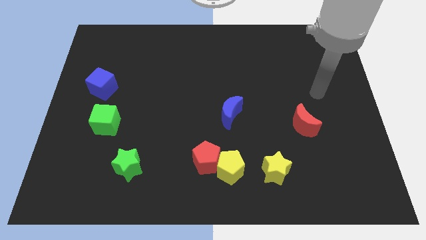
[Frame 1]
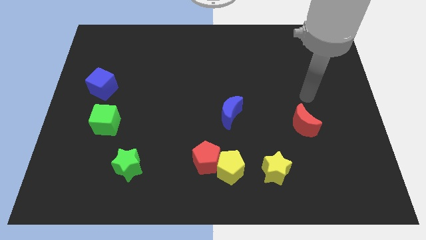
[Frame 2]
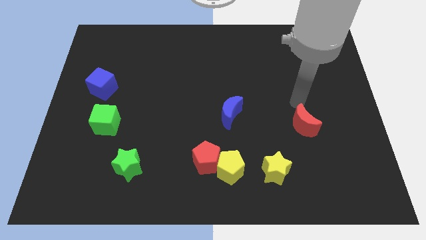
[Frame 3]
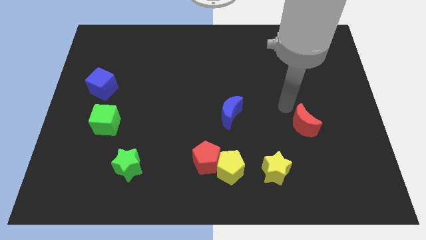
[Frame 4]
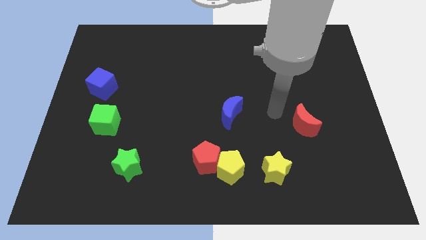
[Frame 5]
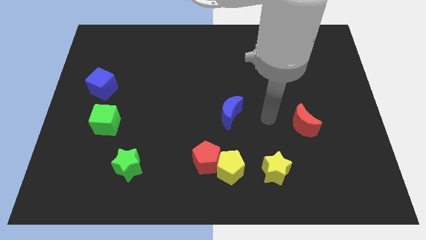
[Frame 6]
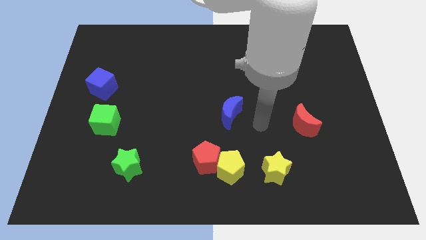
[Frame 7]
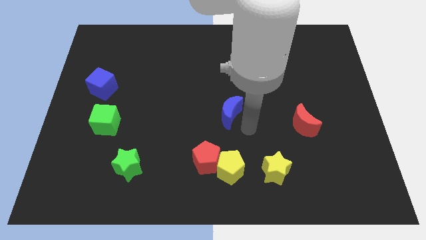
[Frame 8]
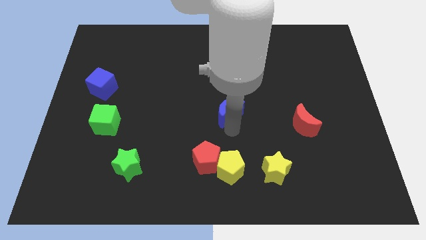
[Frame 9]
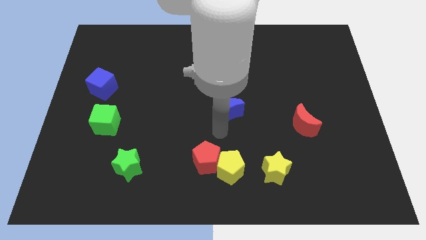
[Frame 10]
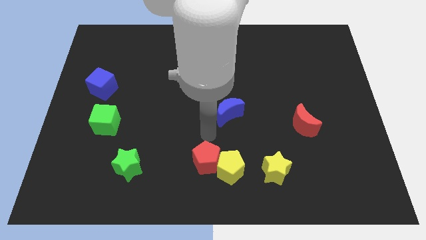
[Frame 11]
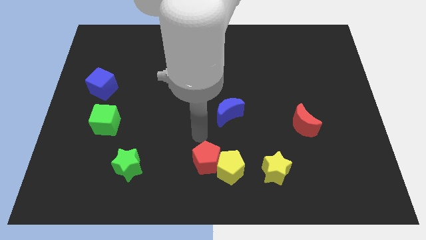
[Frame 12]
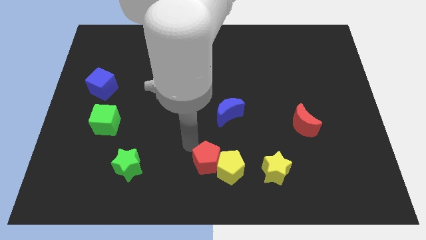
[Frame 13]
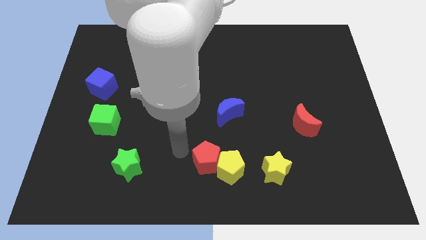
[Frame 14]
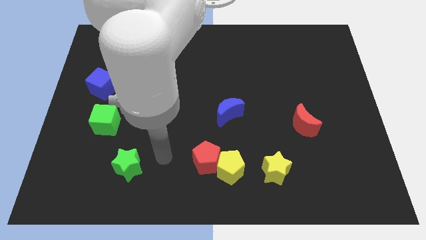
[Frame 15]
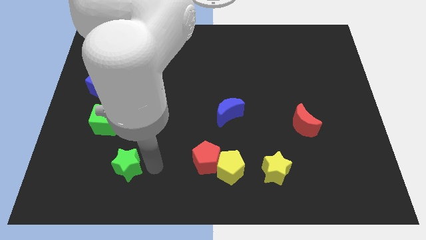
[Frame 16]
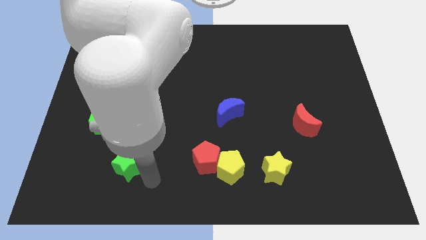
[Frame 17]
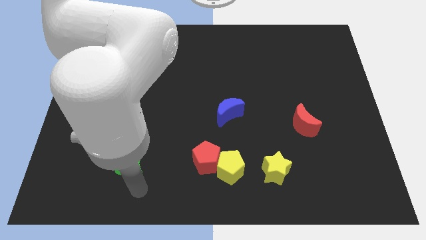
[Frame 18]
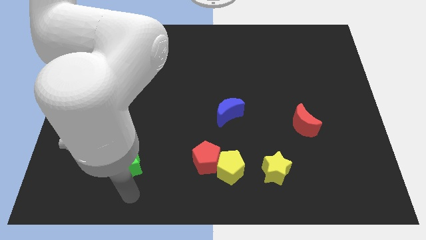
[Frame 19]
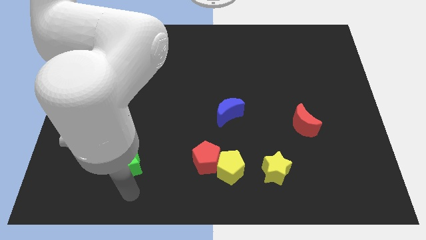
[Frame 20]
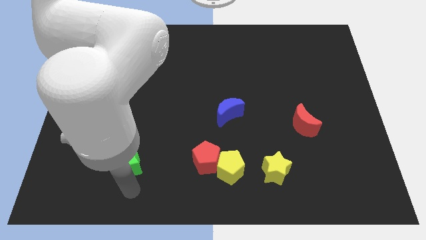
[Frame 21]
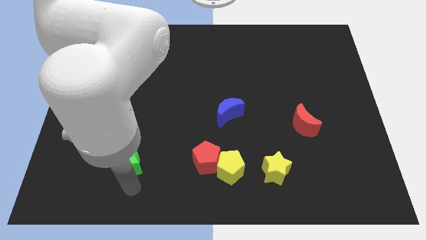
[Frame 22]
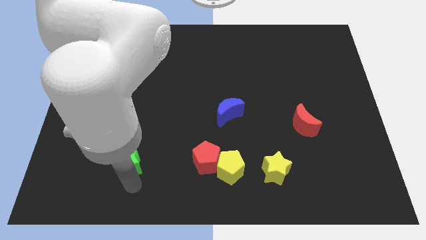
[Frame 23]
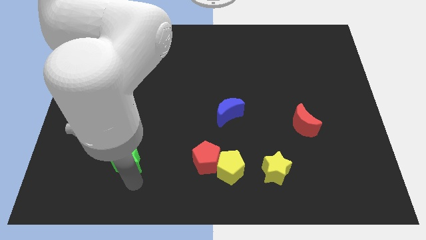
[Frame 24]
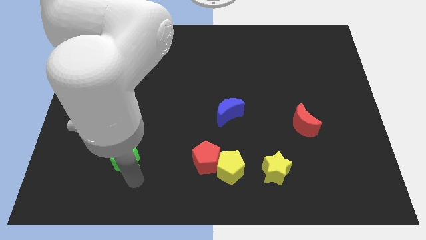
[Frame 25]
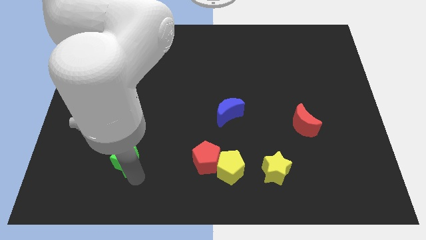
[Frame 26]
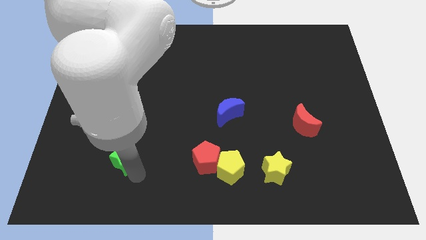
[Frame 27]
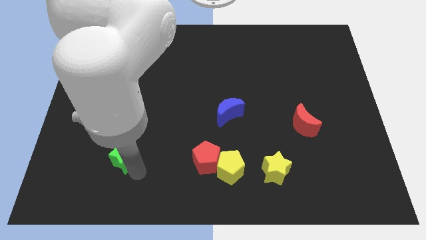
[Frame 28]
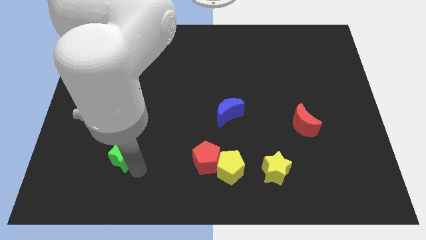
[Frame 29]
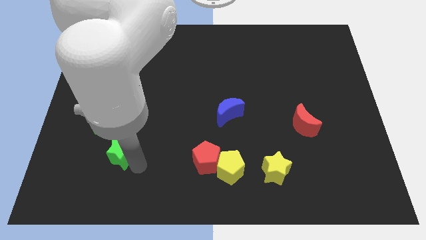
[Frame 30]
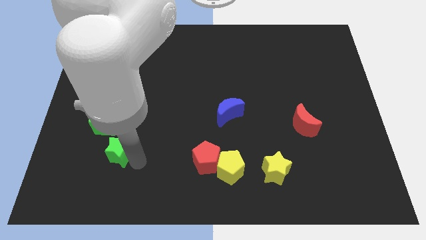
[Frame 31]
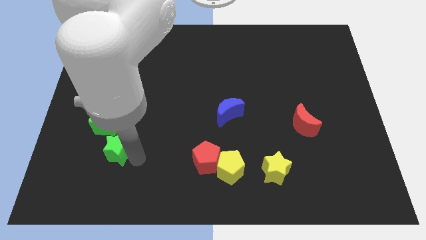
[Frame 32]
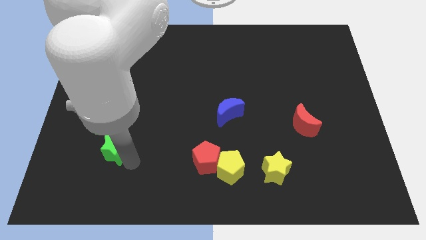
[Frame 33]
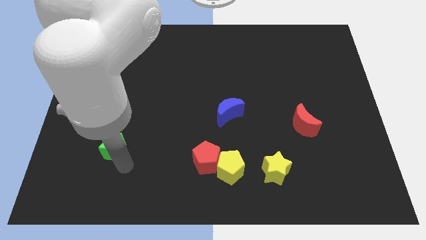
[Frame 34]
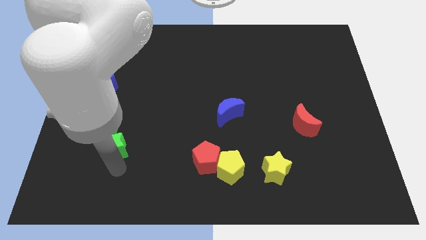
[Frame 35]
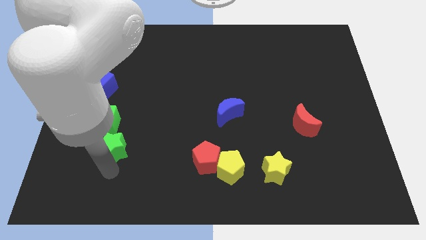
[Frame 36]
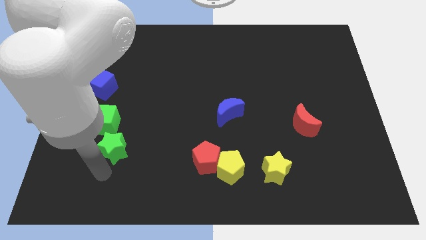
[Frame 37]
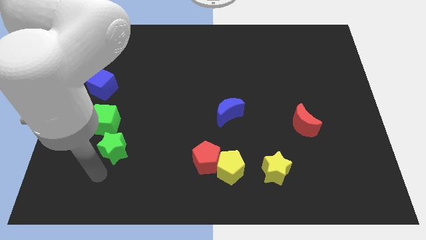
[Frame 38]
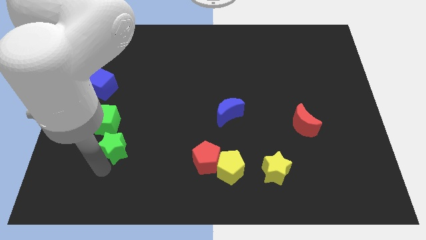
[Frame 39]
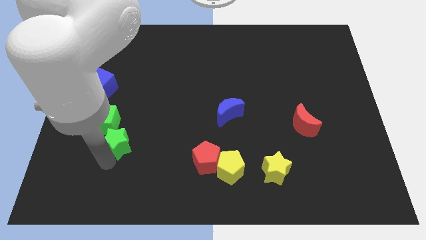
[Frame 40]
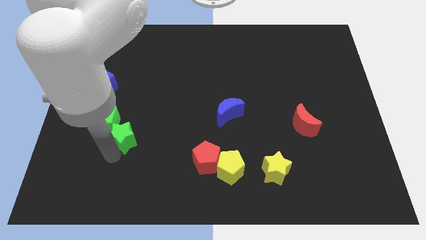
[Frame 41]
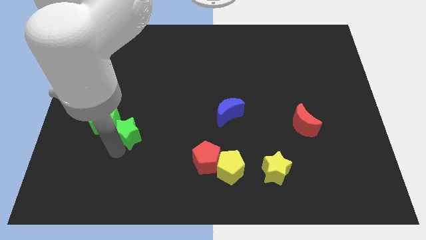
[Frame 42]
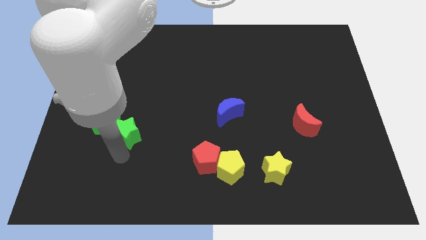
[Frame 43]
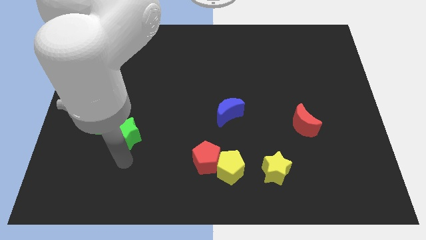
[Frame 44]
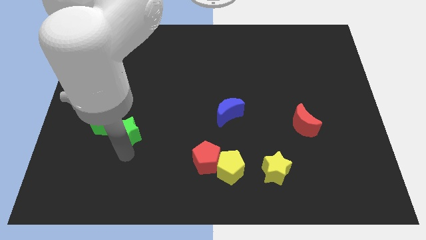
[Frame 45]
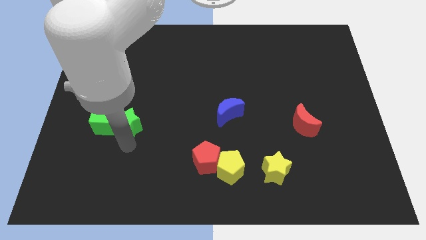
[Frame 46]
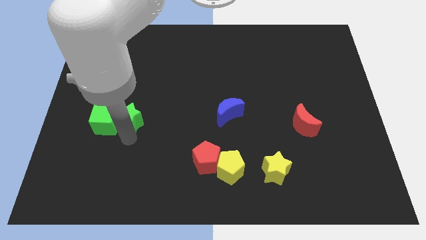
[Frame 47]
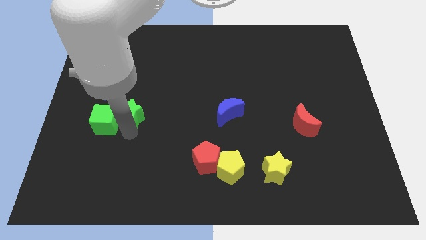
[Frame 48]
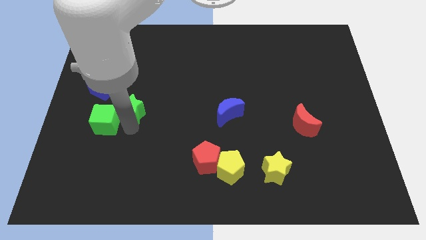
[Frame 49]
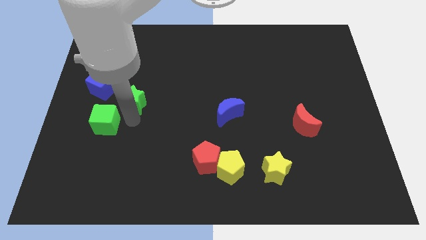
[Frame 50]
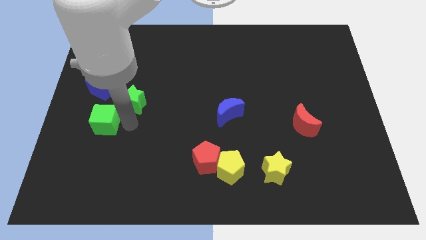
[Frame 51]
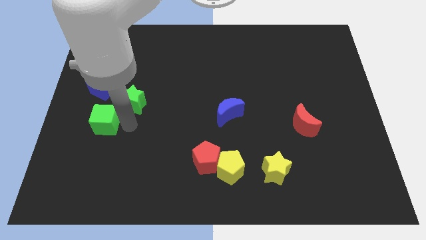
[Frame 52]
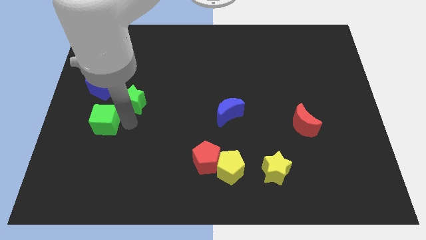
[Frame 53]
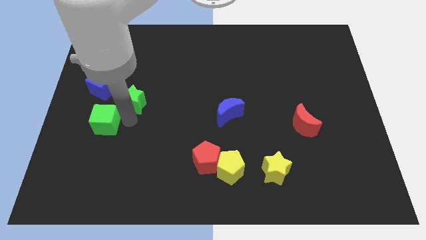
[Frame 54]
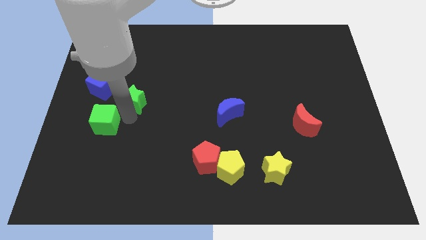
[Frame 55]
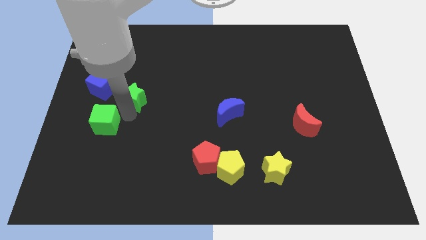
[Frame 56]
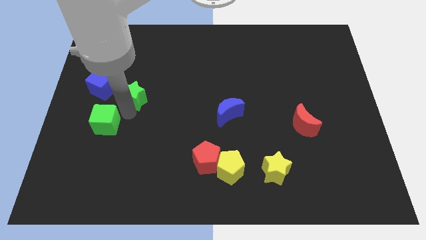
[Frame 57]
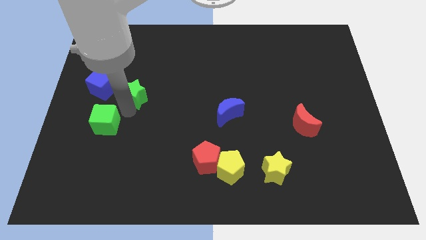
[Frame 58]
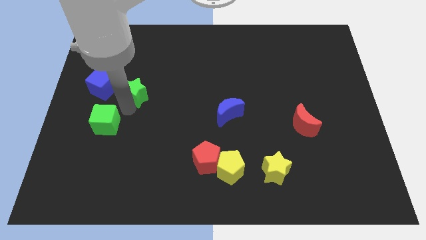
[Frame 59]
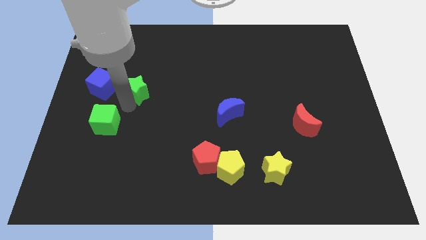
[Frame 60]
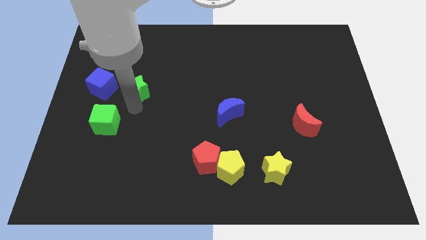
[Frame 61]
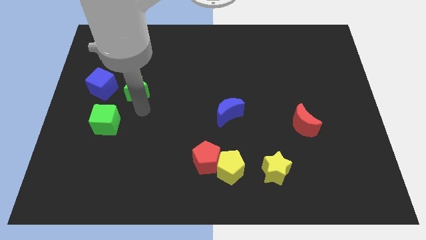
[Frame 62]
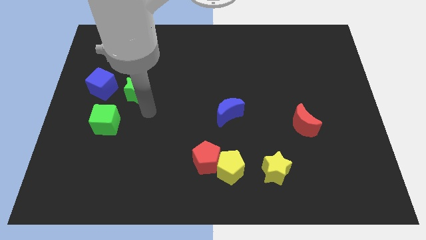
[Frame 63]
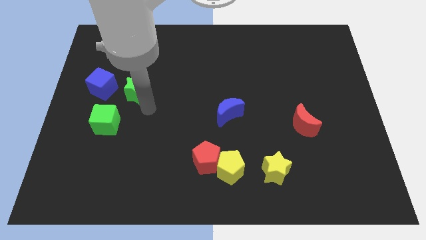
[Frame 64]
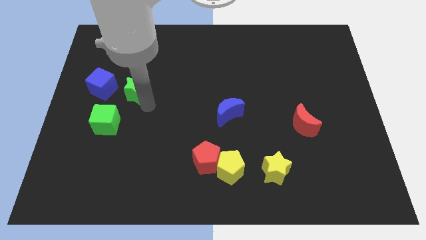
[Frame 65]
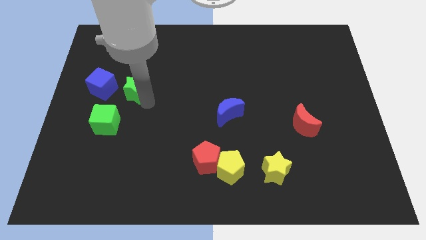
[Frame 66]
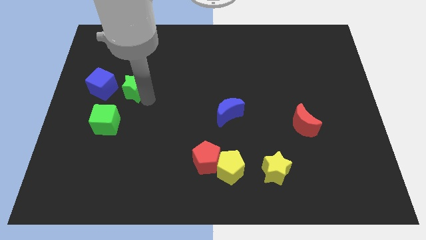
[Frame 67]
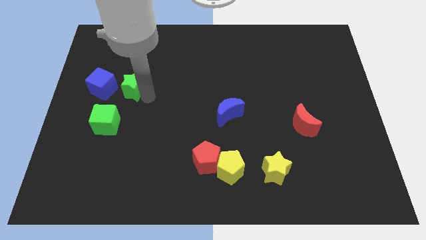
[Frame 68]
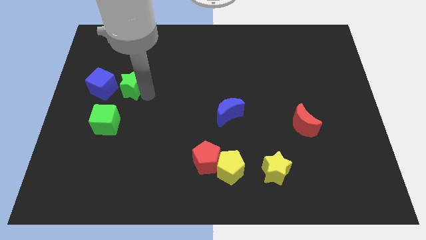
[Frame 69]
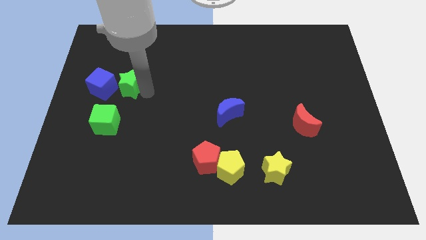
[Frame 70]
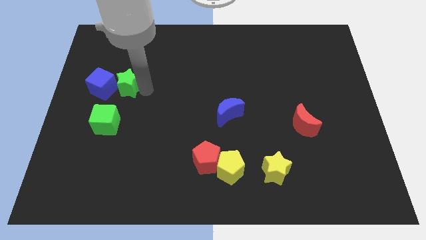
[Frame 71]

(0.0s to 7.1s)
push the green star diagonally up and to the right of the blue cube

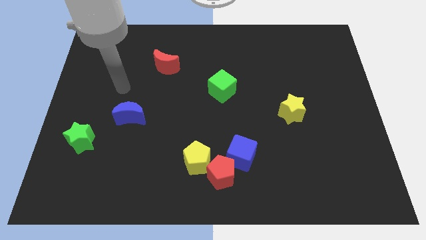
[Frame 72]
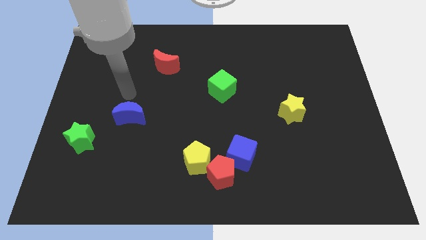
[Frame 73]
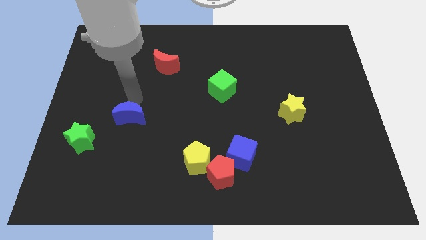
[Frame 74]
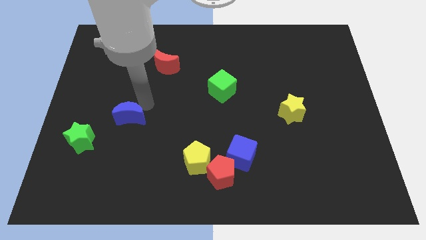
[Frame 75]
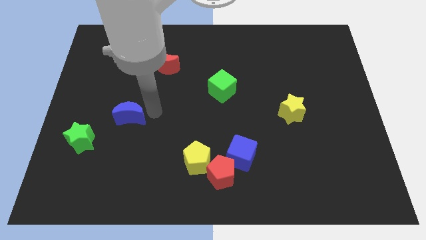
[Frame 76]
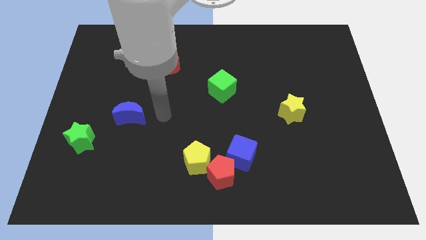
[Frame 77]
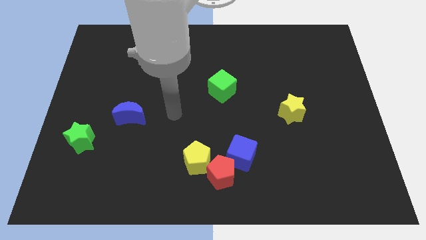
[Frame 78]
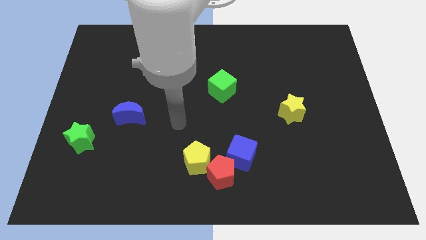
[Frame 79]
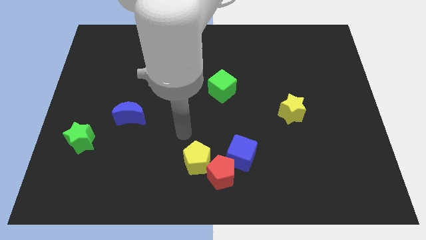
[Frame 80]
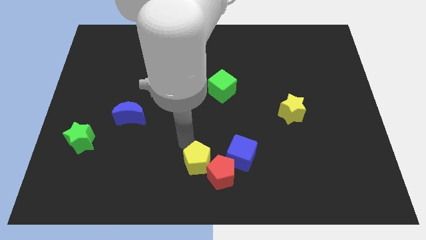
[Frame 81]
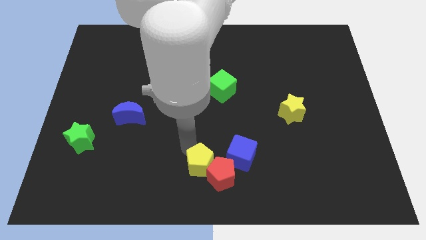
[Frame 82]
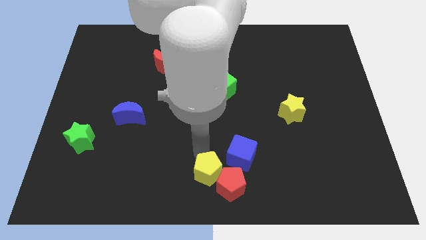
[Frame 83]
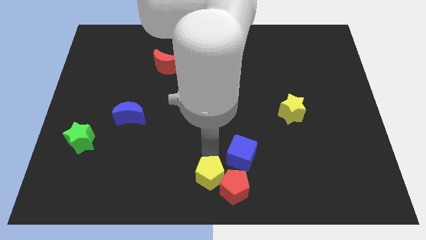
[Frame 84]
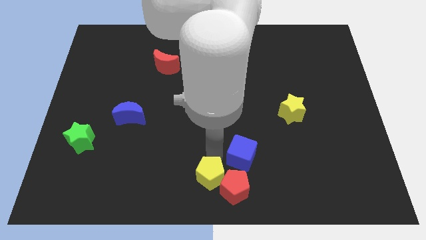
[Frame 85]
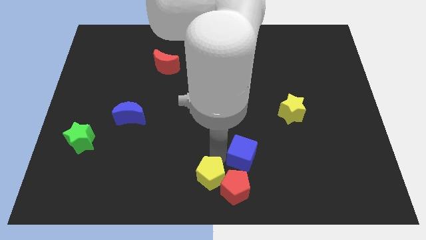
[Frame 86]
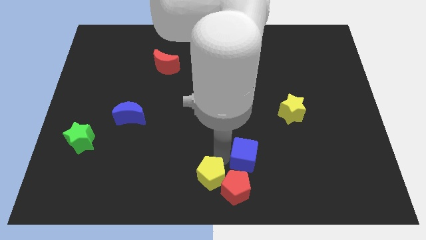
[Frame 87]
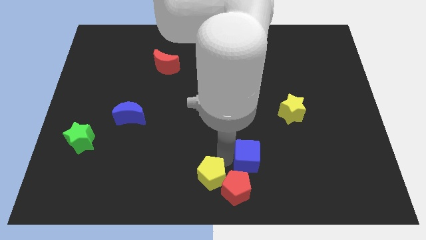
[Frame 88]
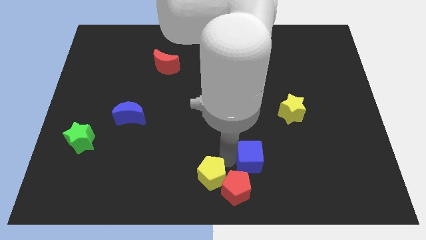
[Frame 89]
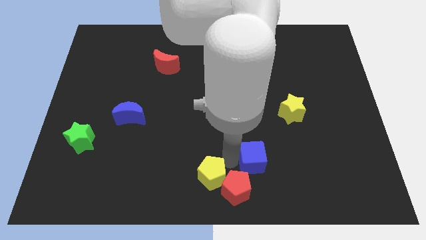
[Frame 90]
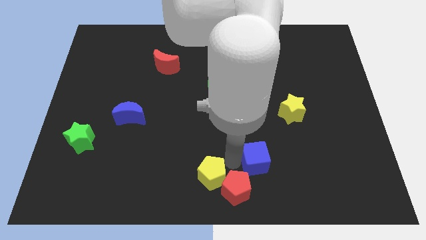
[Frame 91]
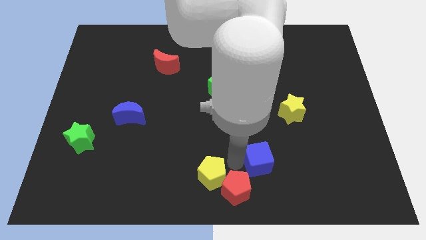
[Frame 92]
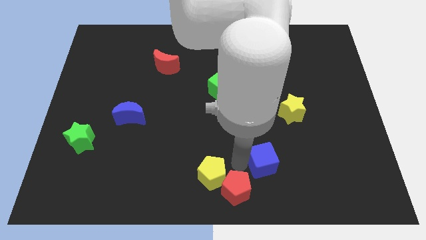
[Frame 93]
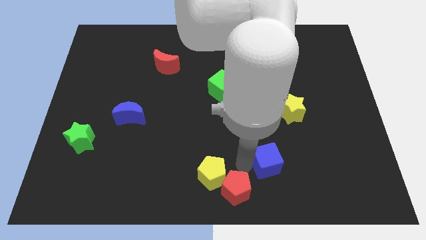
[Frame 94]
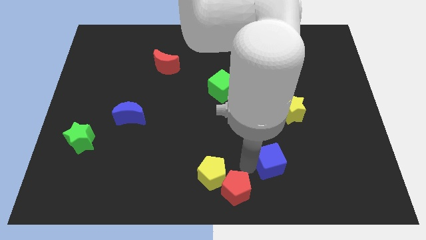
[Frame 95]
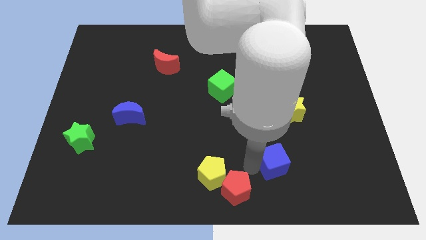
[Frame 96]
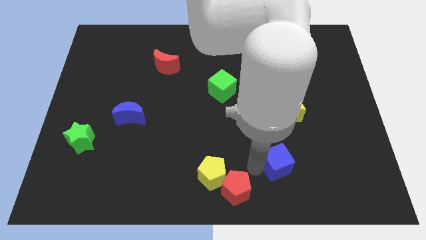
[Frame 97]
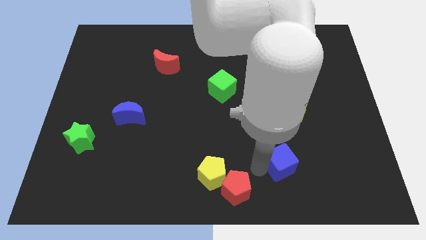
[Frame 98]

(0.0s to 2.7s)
slide the blue cube to the bottom of the yellow star
